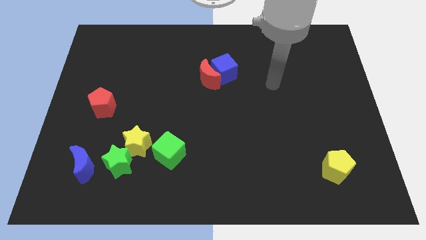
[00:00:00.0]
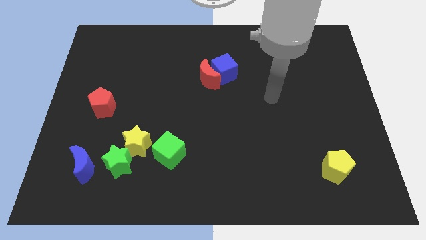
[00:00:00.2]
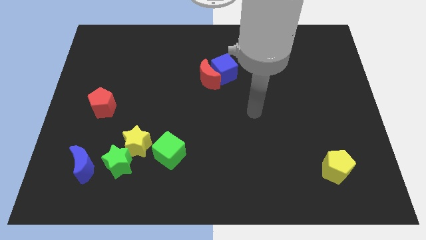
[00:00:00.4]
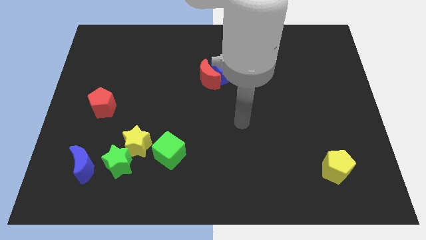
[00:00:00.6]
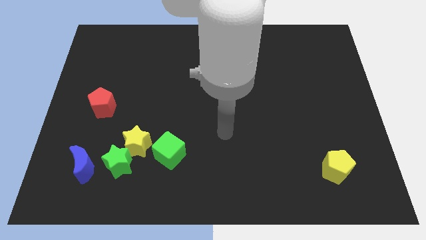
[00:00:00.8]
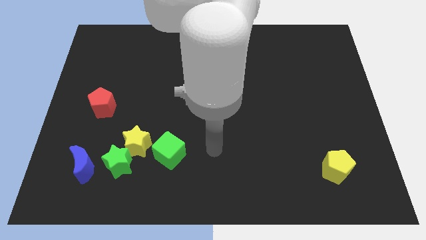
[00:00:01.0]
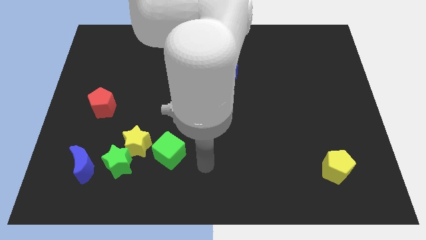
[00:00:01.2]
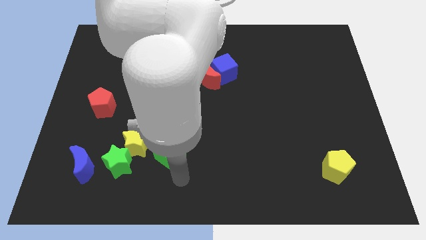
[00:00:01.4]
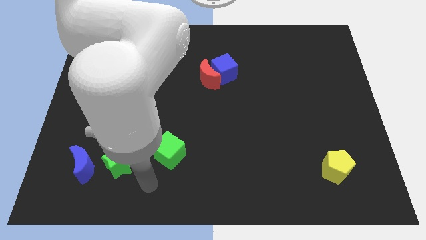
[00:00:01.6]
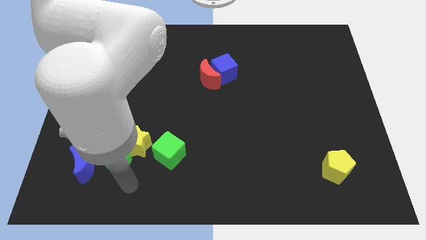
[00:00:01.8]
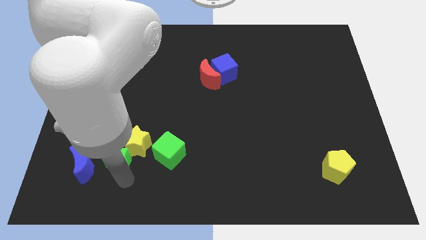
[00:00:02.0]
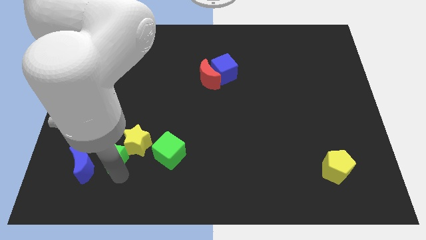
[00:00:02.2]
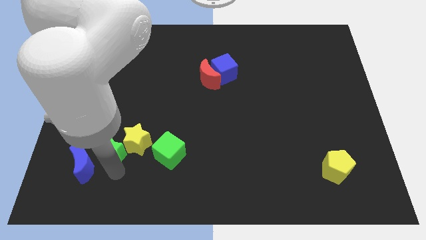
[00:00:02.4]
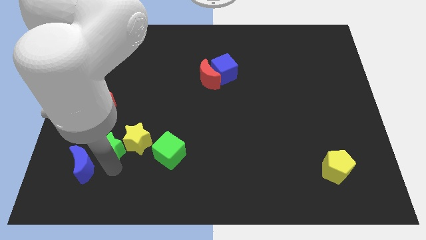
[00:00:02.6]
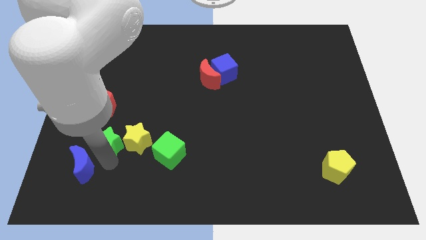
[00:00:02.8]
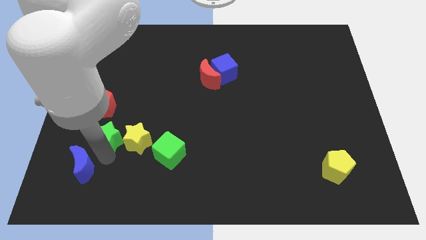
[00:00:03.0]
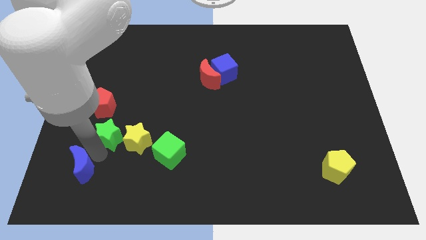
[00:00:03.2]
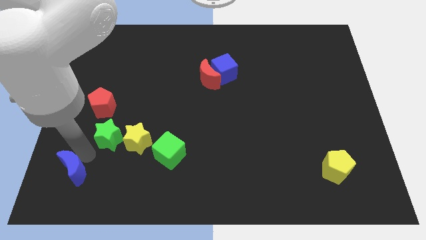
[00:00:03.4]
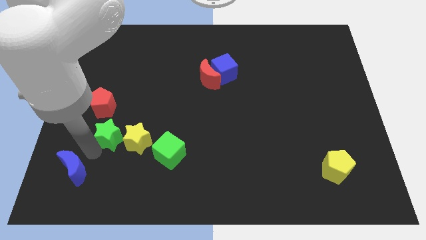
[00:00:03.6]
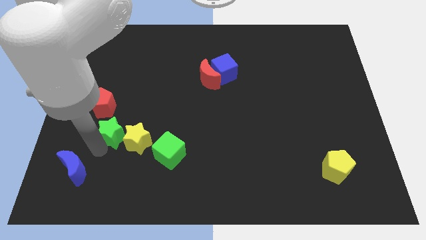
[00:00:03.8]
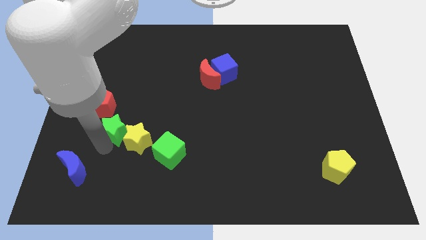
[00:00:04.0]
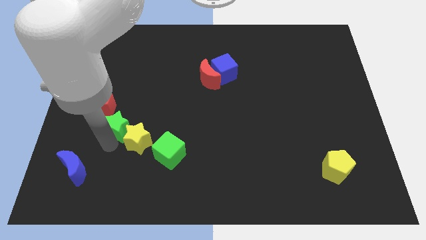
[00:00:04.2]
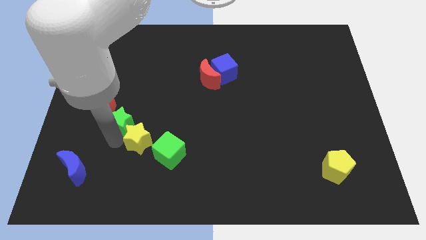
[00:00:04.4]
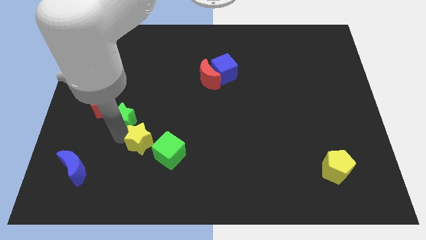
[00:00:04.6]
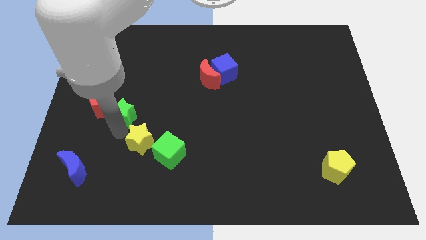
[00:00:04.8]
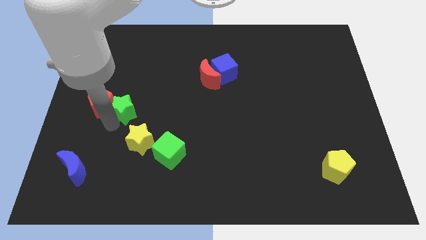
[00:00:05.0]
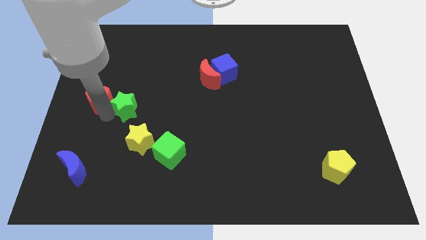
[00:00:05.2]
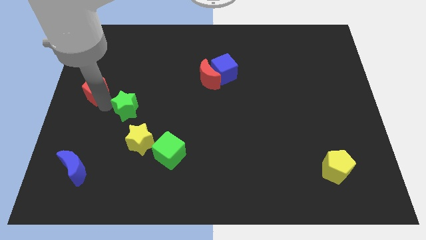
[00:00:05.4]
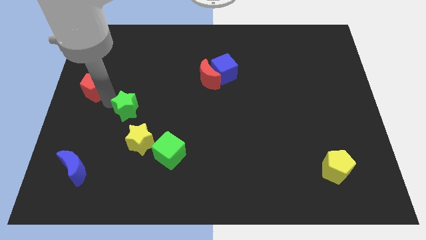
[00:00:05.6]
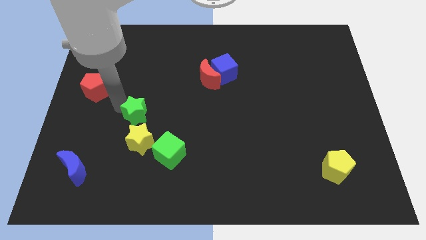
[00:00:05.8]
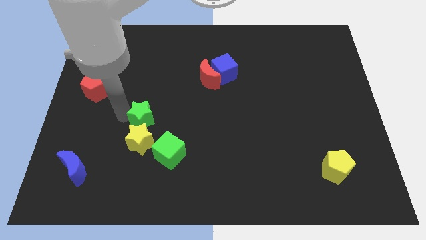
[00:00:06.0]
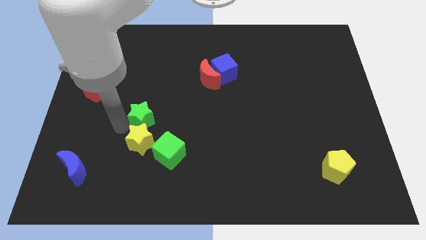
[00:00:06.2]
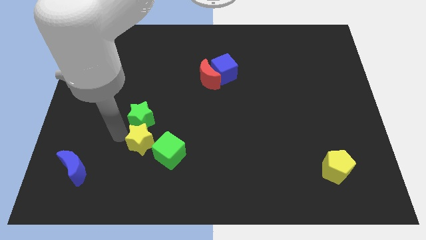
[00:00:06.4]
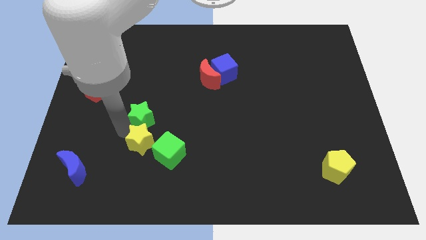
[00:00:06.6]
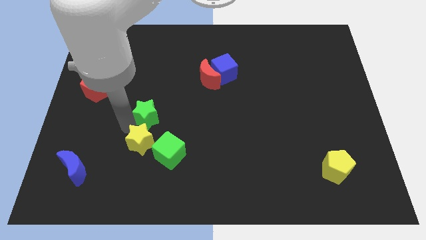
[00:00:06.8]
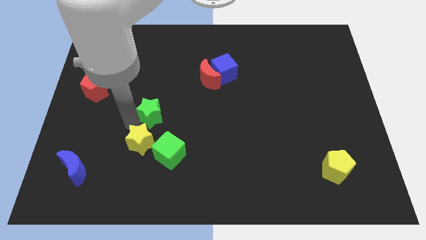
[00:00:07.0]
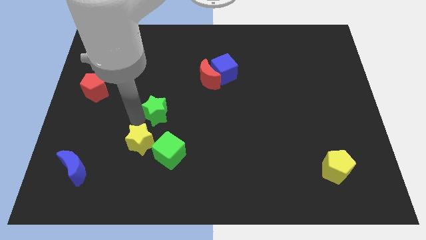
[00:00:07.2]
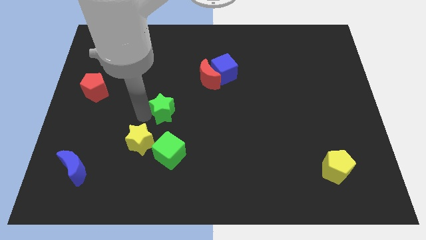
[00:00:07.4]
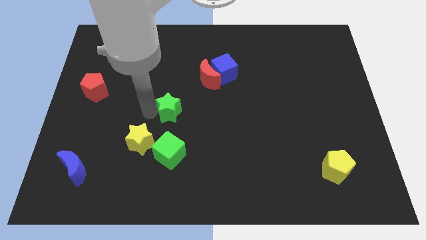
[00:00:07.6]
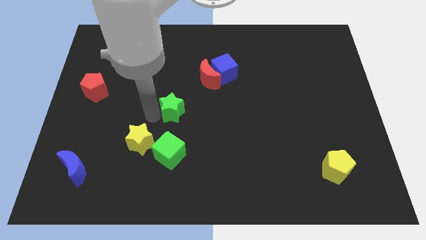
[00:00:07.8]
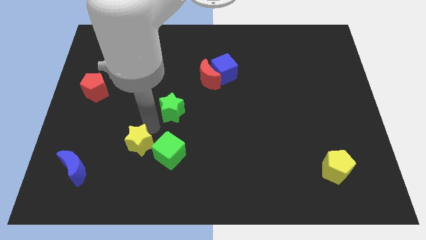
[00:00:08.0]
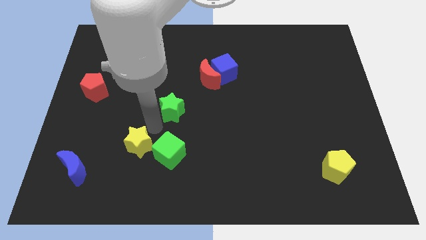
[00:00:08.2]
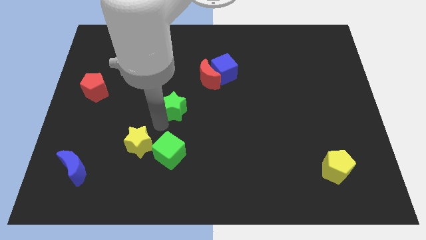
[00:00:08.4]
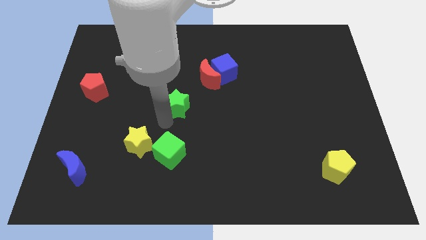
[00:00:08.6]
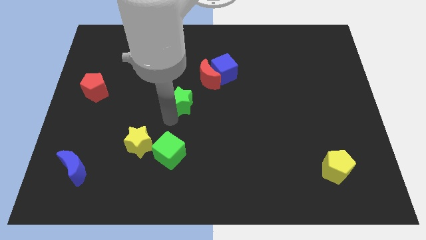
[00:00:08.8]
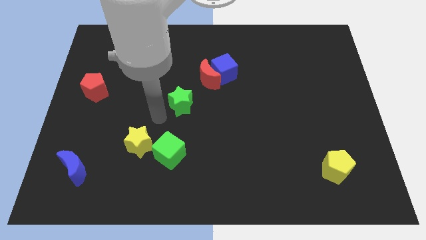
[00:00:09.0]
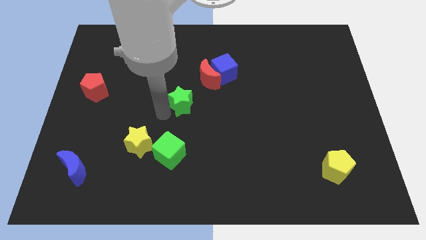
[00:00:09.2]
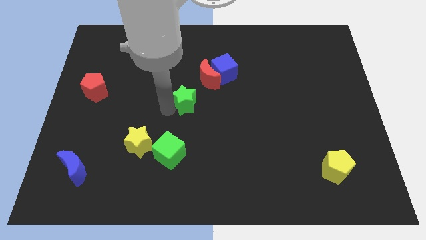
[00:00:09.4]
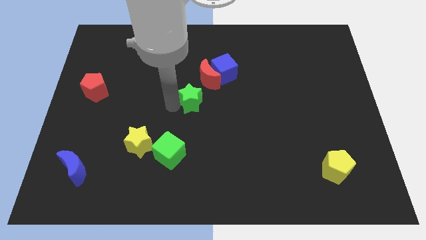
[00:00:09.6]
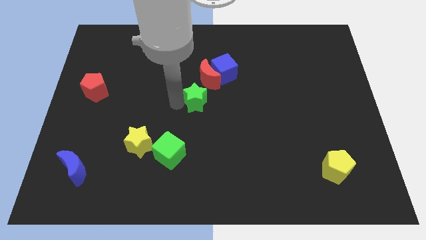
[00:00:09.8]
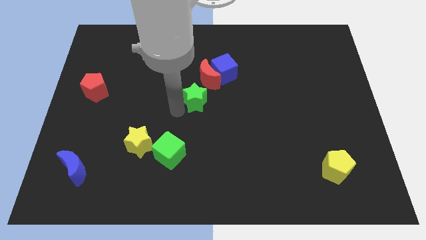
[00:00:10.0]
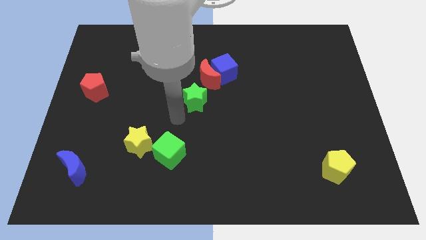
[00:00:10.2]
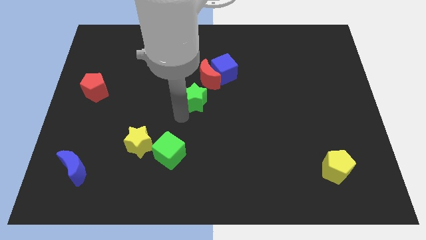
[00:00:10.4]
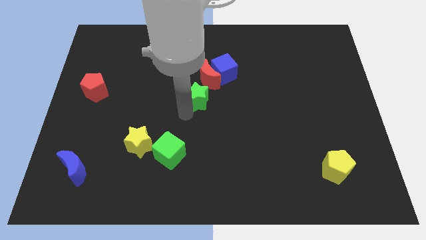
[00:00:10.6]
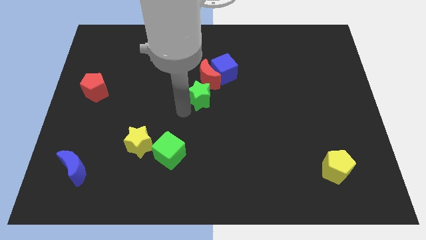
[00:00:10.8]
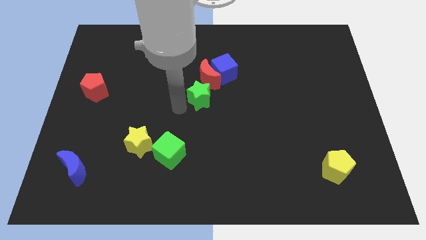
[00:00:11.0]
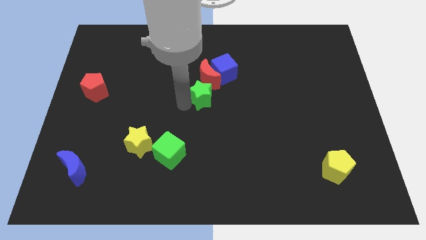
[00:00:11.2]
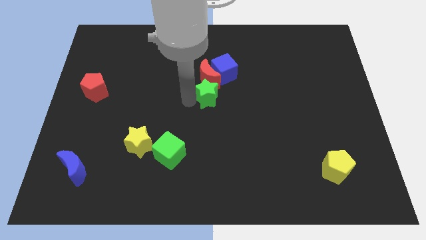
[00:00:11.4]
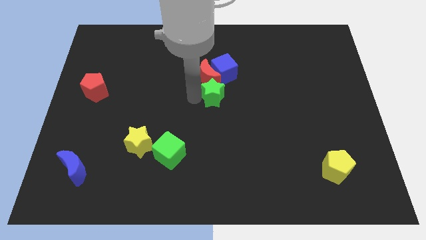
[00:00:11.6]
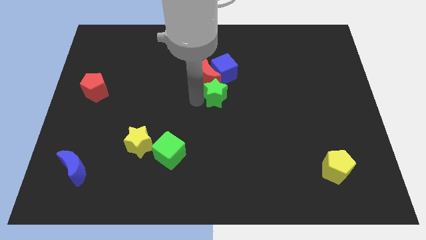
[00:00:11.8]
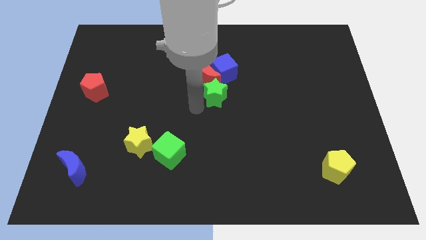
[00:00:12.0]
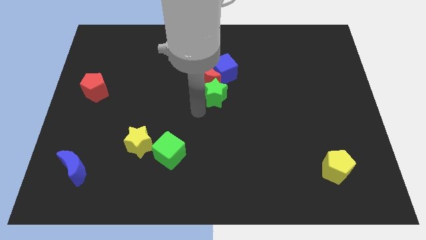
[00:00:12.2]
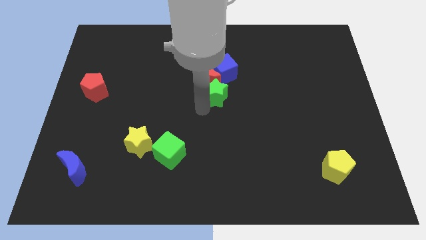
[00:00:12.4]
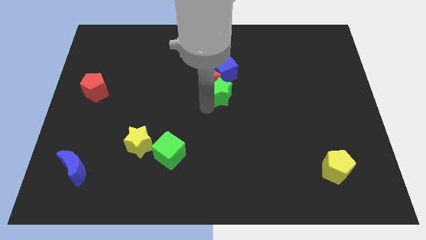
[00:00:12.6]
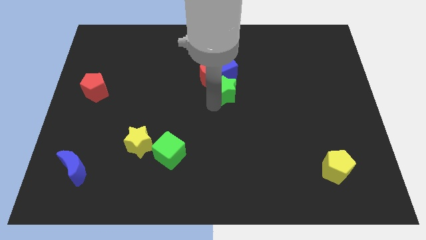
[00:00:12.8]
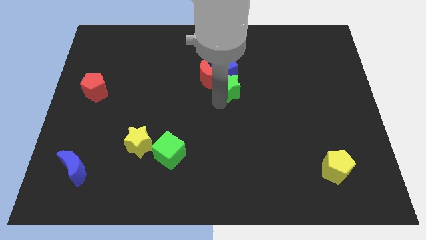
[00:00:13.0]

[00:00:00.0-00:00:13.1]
slide the green star close to the blue cube
